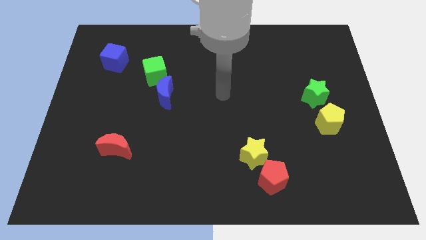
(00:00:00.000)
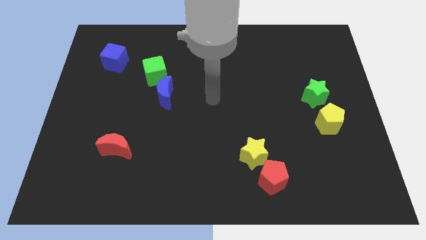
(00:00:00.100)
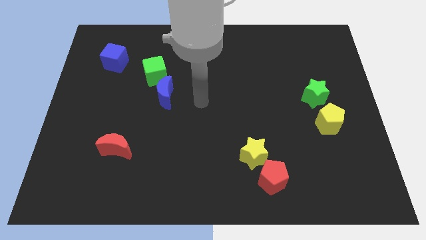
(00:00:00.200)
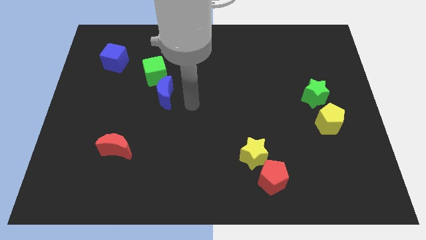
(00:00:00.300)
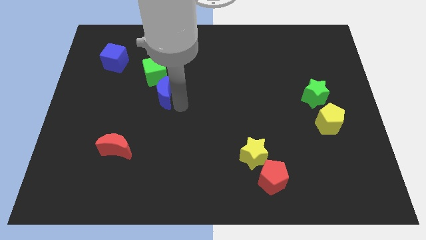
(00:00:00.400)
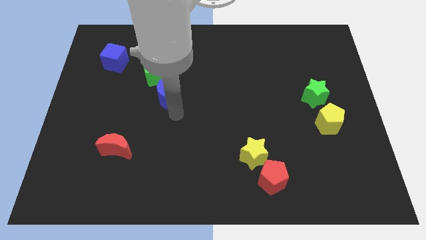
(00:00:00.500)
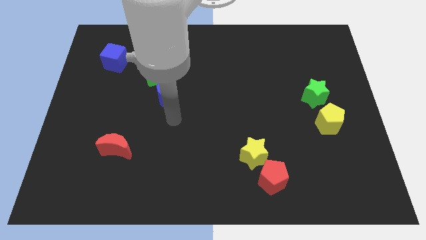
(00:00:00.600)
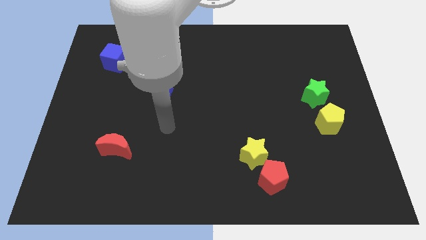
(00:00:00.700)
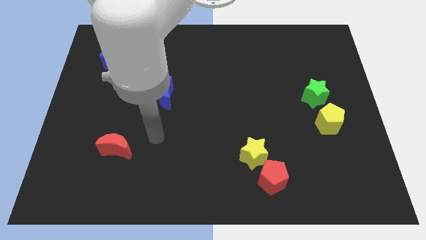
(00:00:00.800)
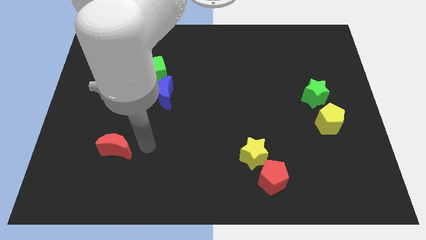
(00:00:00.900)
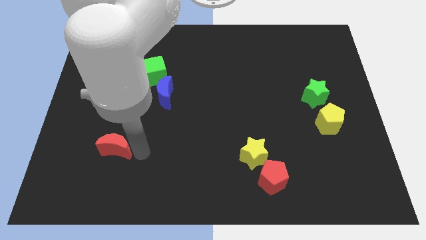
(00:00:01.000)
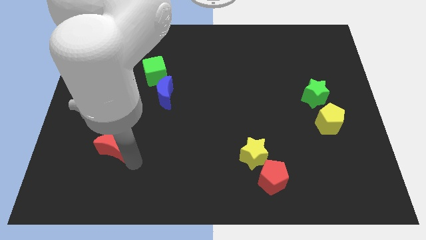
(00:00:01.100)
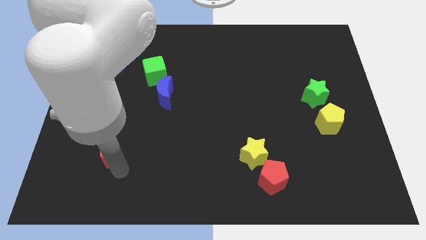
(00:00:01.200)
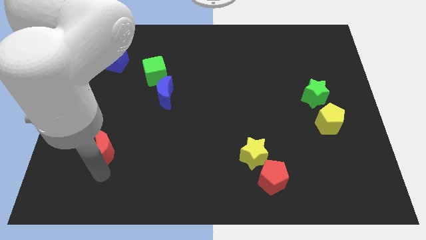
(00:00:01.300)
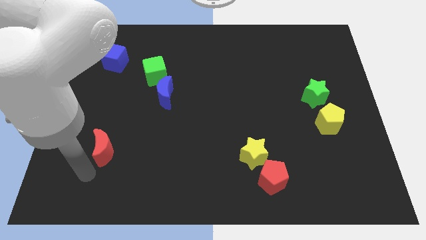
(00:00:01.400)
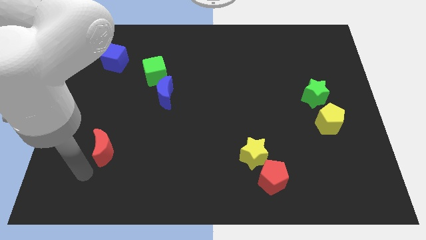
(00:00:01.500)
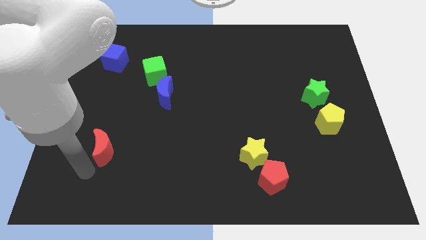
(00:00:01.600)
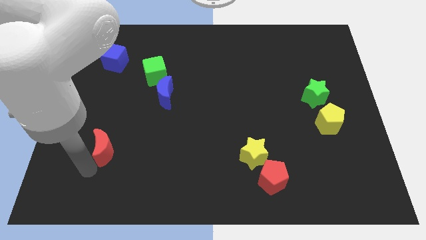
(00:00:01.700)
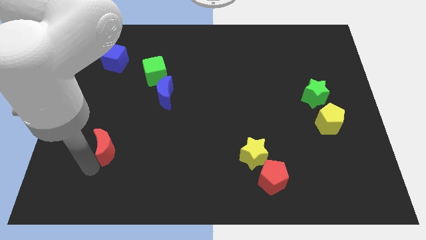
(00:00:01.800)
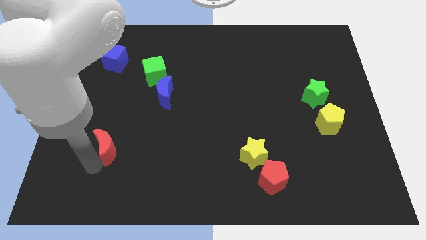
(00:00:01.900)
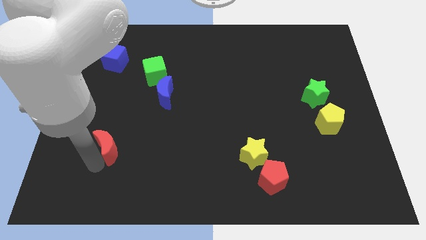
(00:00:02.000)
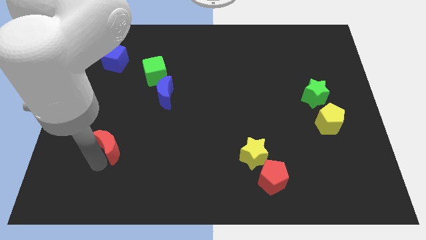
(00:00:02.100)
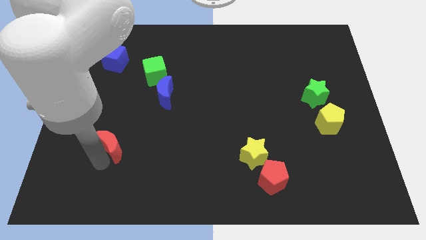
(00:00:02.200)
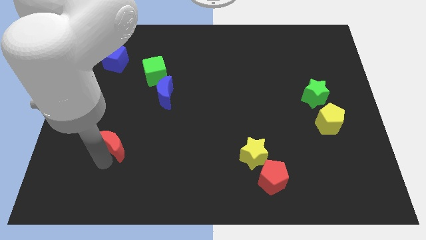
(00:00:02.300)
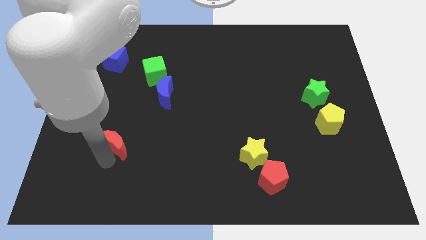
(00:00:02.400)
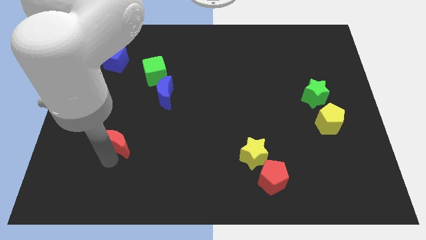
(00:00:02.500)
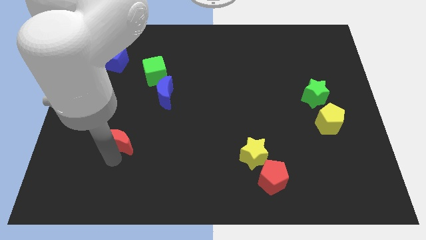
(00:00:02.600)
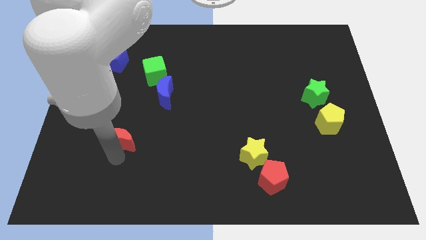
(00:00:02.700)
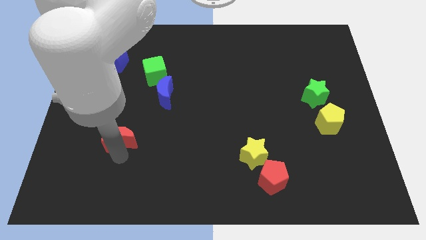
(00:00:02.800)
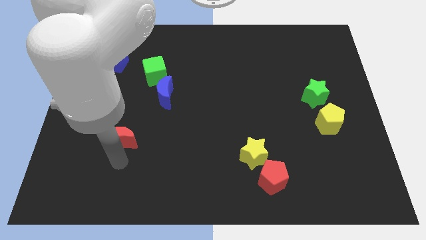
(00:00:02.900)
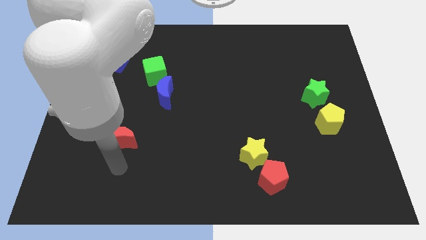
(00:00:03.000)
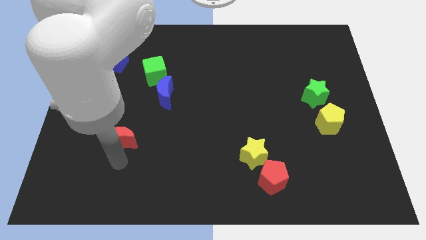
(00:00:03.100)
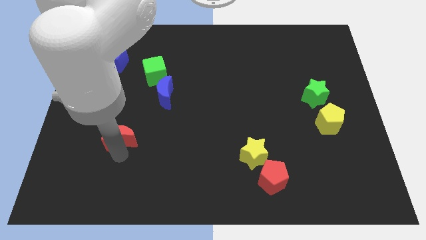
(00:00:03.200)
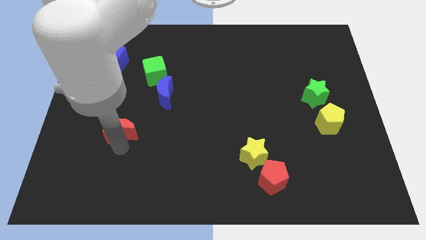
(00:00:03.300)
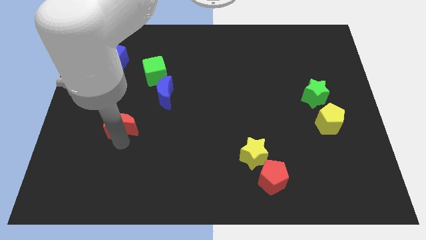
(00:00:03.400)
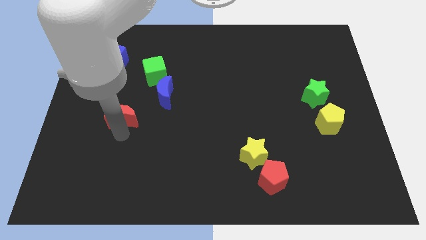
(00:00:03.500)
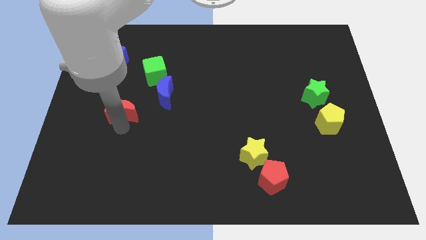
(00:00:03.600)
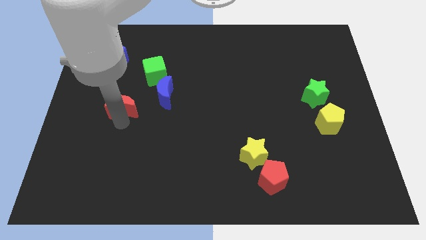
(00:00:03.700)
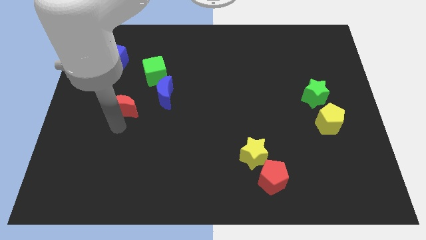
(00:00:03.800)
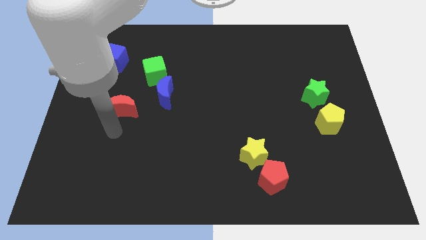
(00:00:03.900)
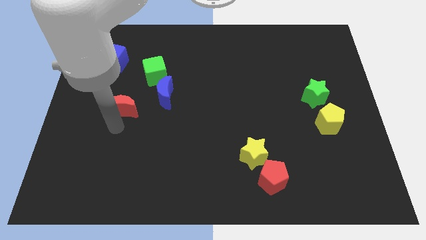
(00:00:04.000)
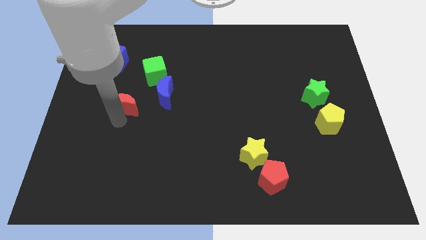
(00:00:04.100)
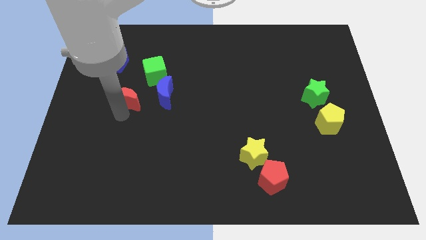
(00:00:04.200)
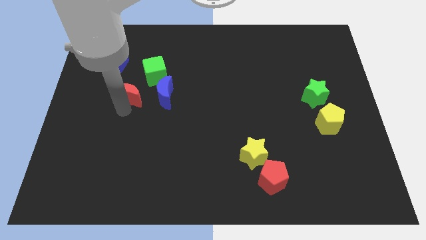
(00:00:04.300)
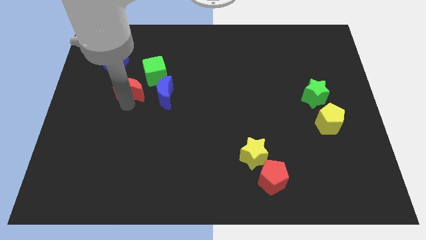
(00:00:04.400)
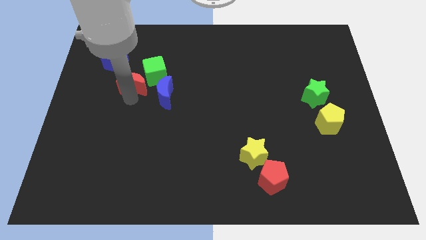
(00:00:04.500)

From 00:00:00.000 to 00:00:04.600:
move the red moon left of the green cube

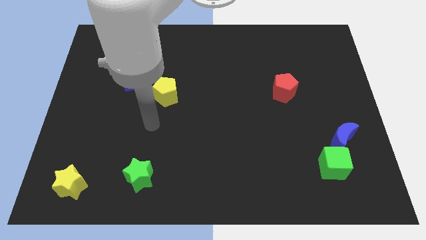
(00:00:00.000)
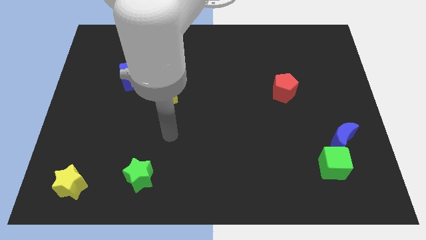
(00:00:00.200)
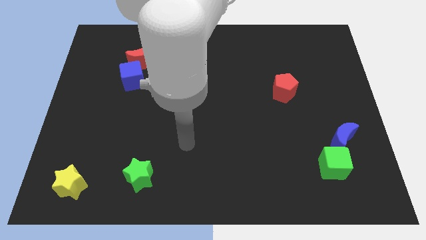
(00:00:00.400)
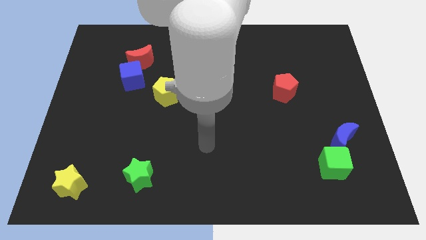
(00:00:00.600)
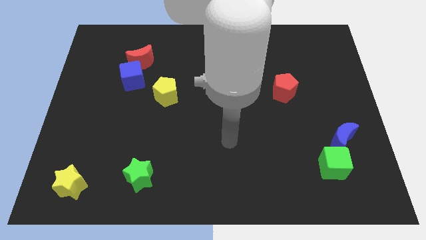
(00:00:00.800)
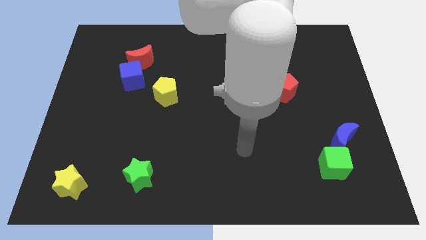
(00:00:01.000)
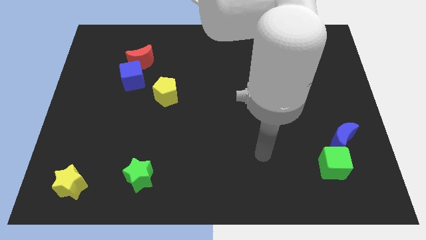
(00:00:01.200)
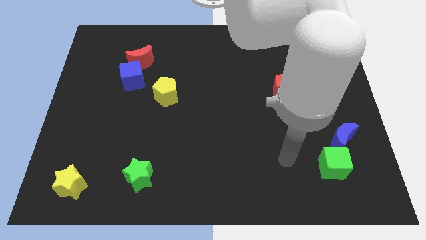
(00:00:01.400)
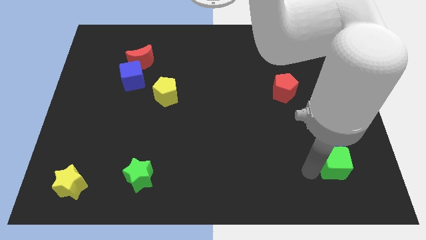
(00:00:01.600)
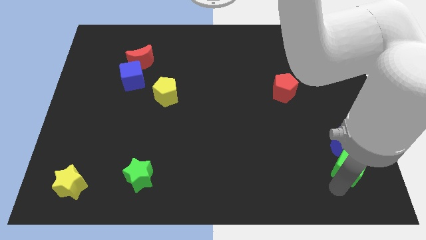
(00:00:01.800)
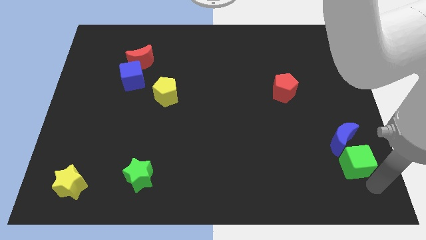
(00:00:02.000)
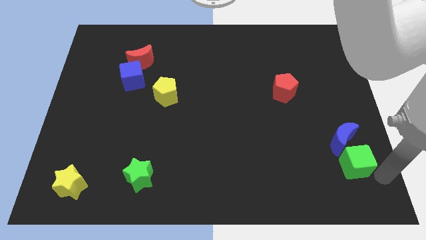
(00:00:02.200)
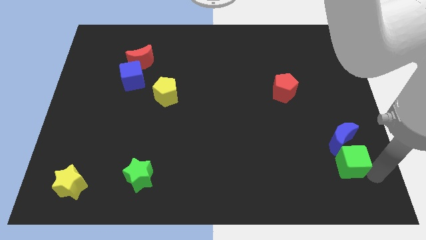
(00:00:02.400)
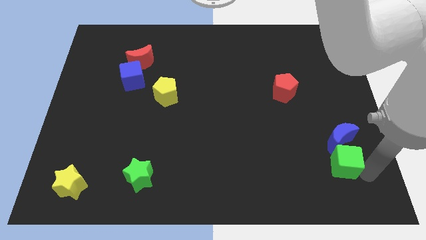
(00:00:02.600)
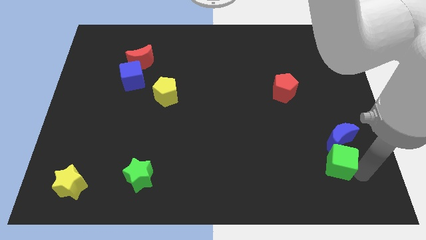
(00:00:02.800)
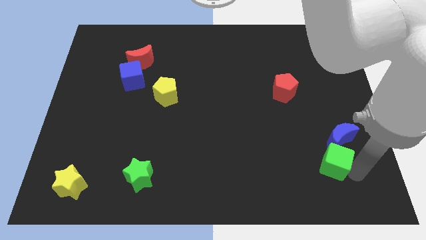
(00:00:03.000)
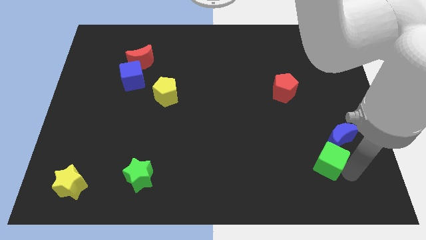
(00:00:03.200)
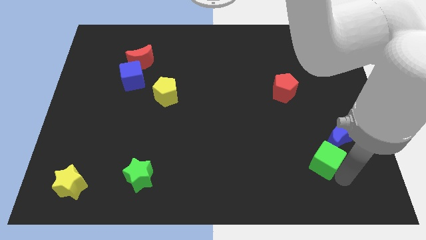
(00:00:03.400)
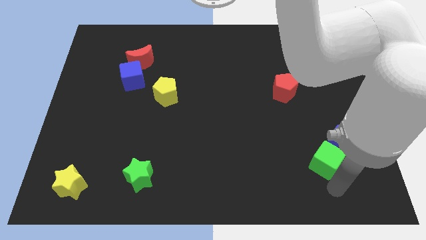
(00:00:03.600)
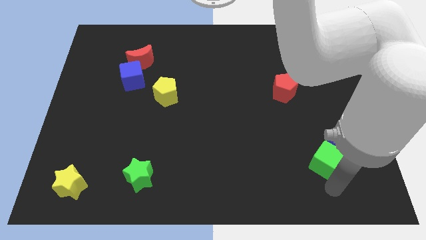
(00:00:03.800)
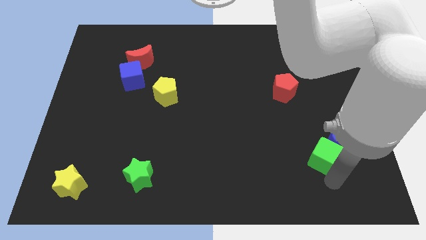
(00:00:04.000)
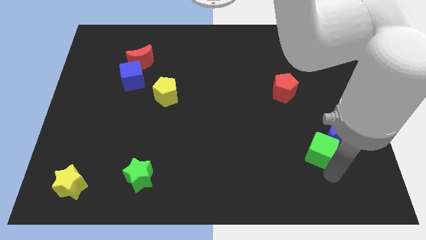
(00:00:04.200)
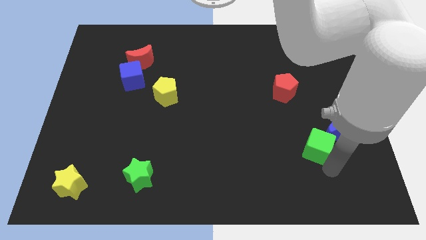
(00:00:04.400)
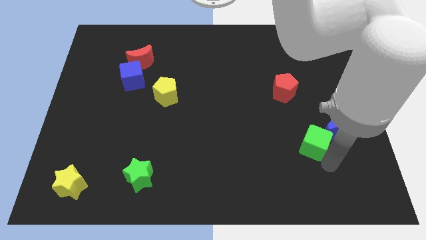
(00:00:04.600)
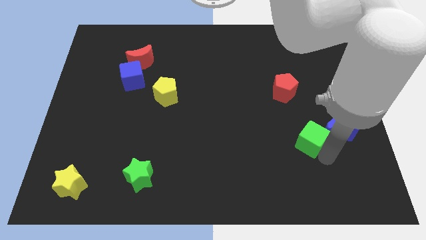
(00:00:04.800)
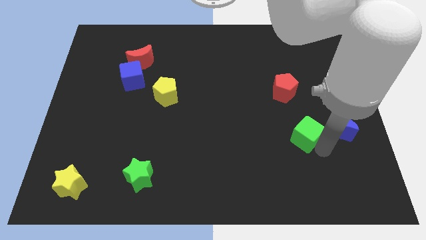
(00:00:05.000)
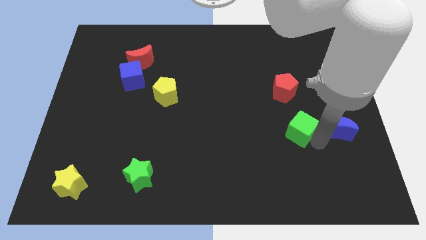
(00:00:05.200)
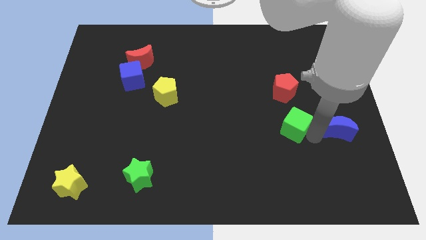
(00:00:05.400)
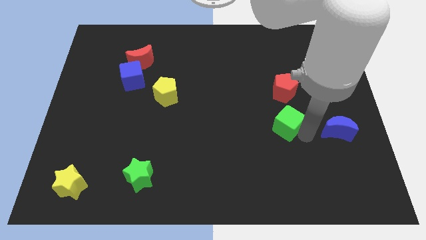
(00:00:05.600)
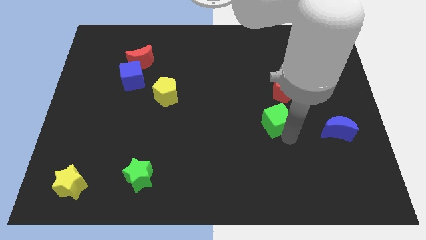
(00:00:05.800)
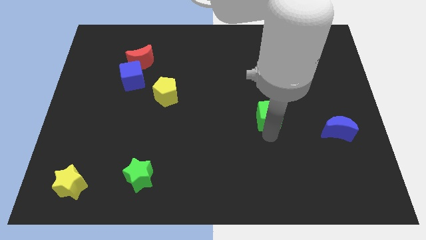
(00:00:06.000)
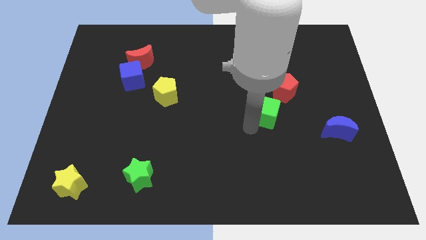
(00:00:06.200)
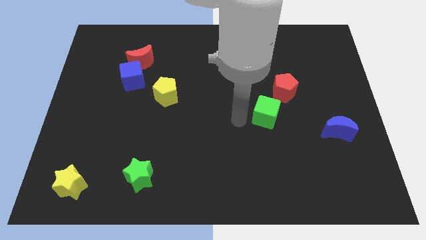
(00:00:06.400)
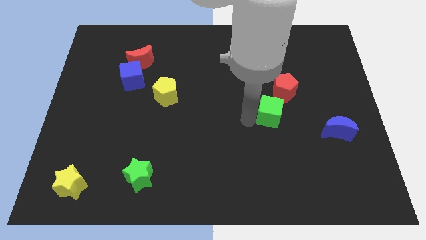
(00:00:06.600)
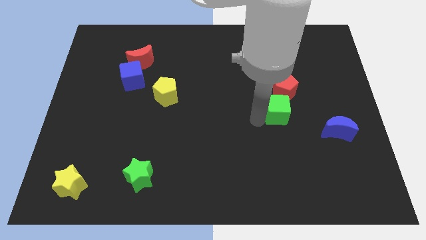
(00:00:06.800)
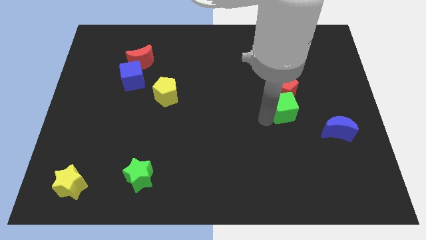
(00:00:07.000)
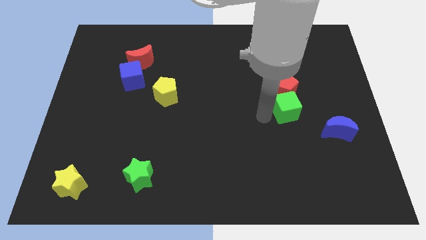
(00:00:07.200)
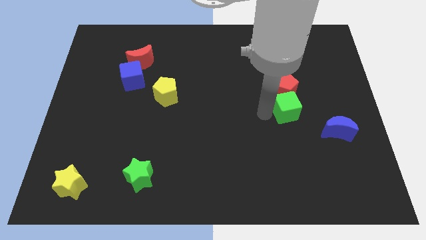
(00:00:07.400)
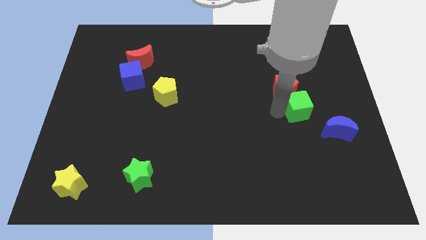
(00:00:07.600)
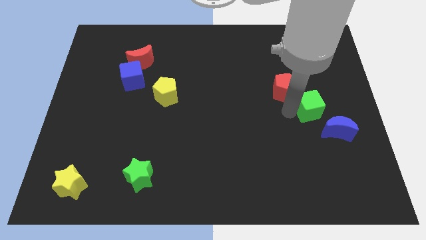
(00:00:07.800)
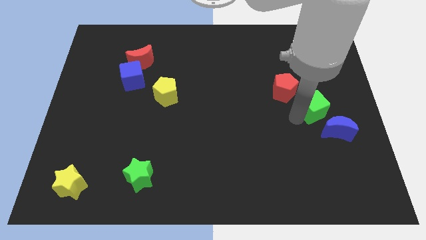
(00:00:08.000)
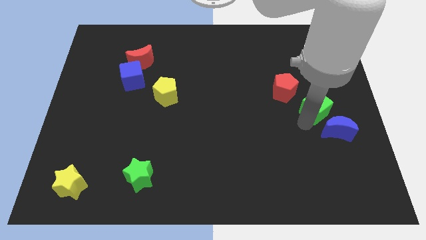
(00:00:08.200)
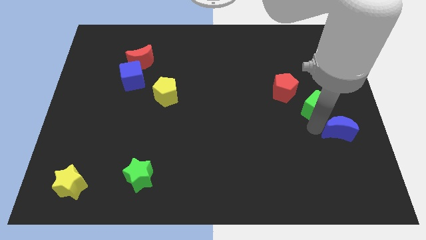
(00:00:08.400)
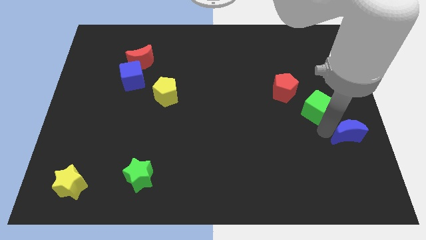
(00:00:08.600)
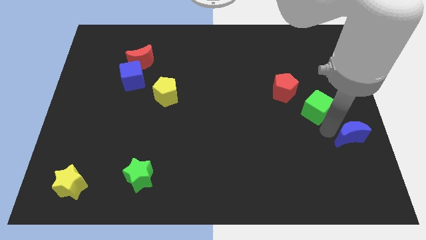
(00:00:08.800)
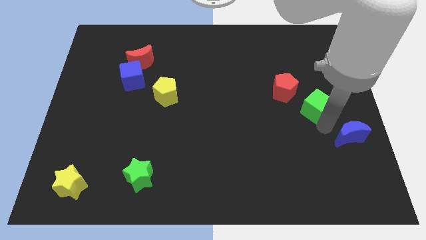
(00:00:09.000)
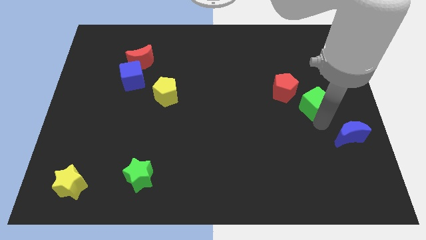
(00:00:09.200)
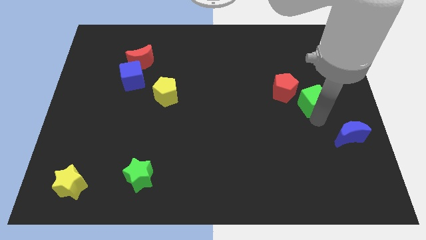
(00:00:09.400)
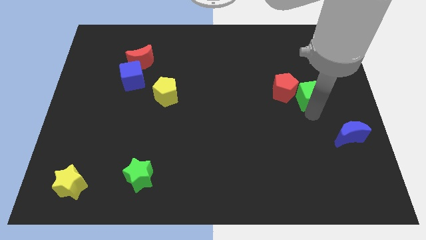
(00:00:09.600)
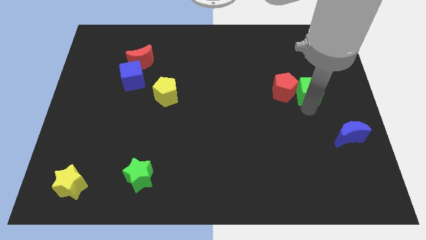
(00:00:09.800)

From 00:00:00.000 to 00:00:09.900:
move the green cube to the top right side of the red pentagon
